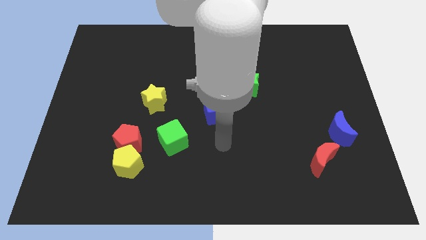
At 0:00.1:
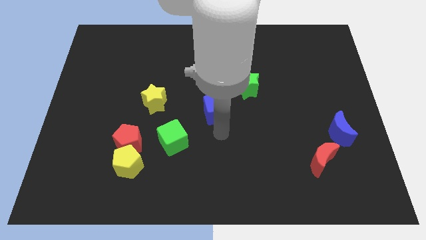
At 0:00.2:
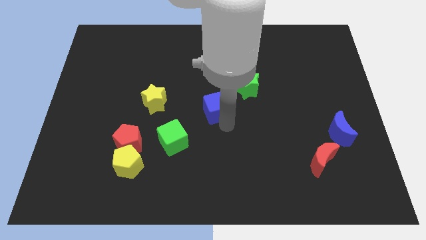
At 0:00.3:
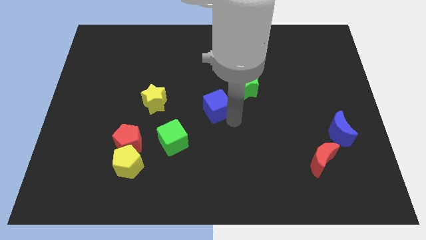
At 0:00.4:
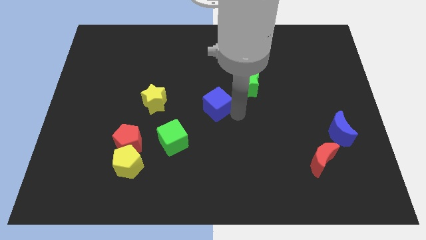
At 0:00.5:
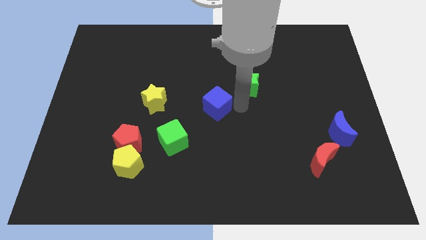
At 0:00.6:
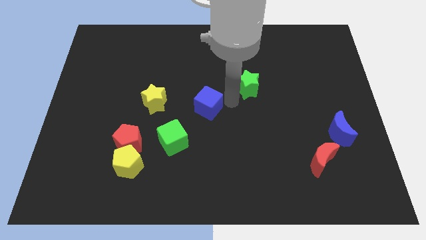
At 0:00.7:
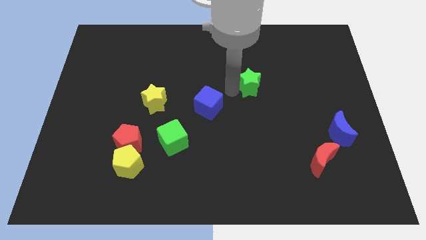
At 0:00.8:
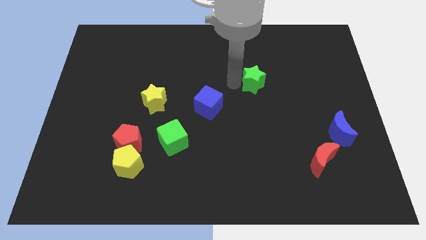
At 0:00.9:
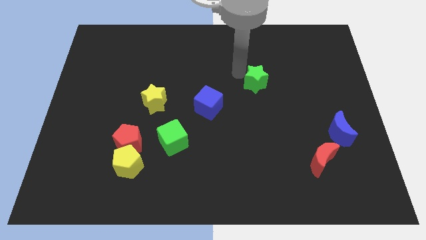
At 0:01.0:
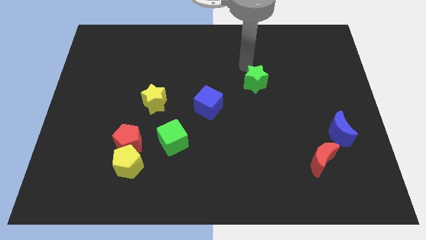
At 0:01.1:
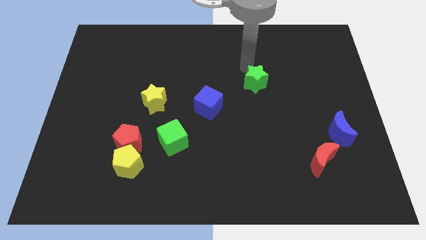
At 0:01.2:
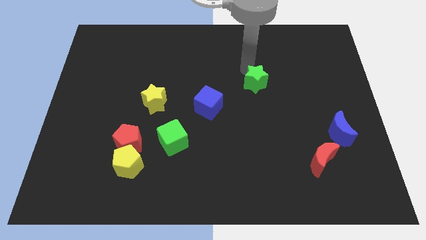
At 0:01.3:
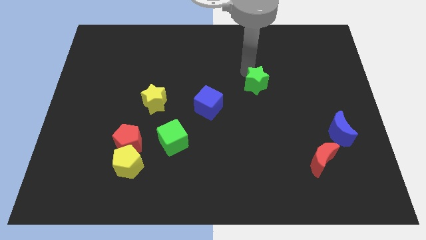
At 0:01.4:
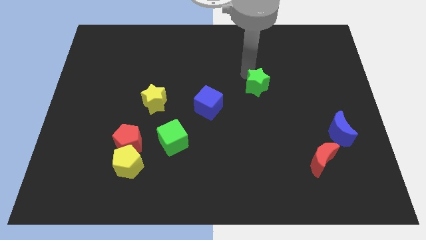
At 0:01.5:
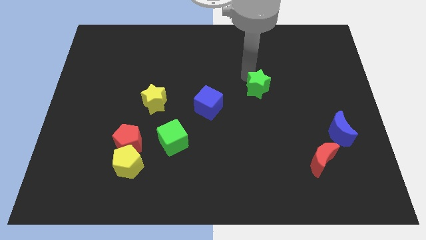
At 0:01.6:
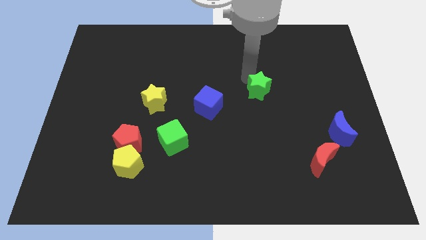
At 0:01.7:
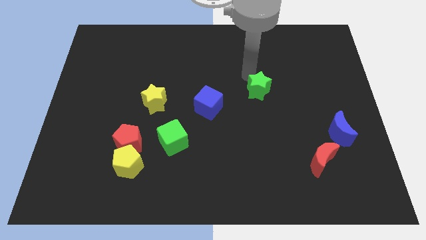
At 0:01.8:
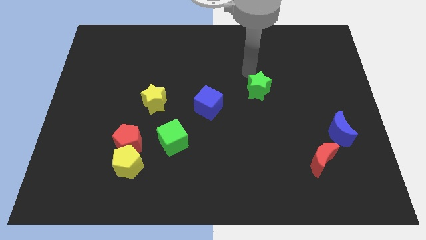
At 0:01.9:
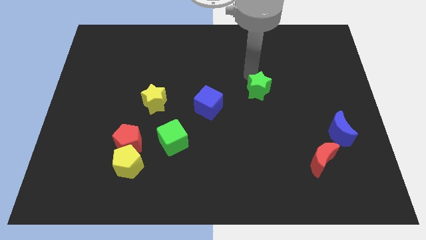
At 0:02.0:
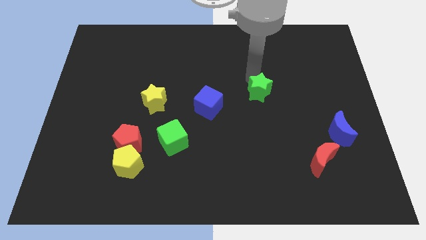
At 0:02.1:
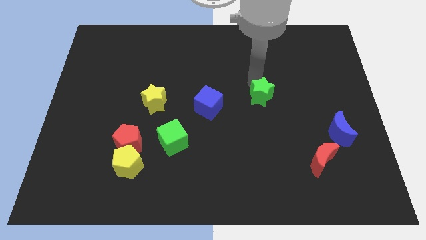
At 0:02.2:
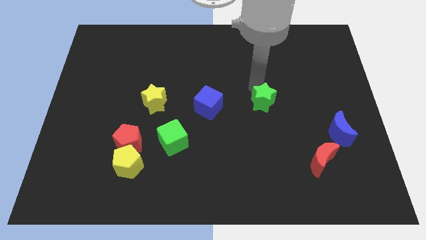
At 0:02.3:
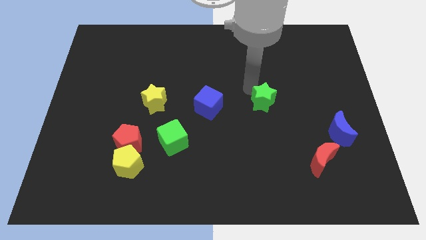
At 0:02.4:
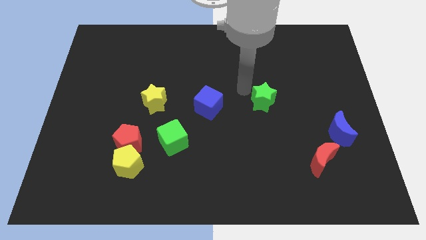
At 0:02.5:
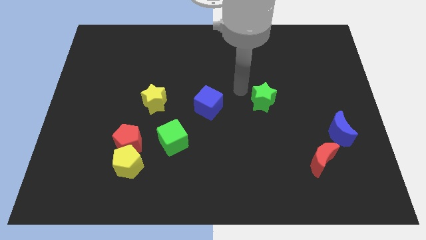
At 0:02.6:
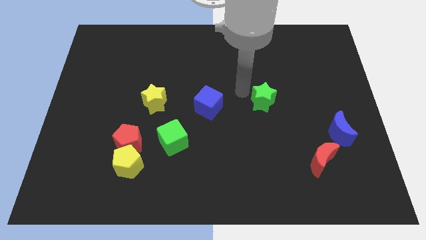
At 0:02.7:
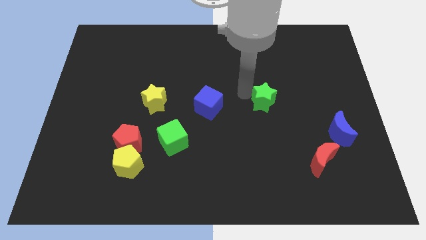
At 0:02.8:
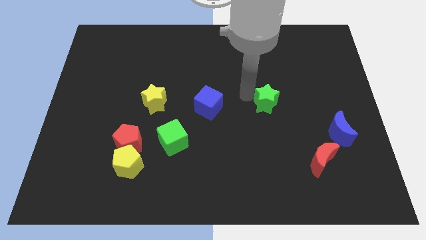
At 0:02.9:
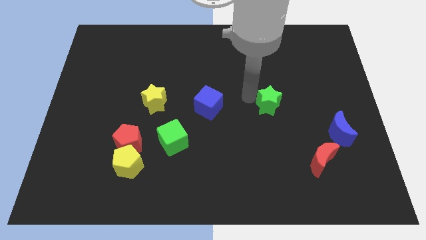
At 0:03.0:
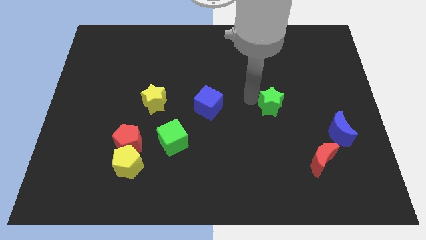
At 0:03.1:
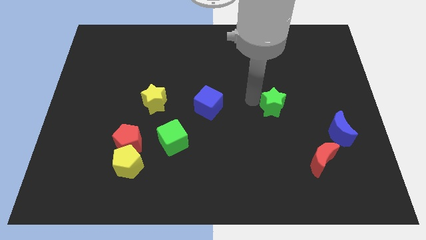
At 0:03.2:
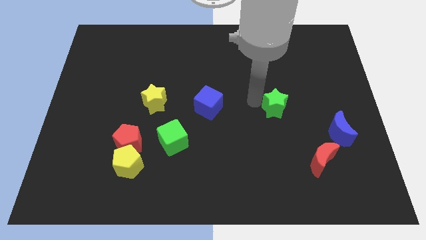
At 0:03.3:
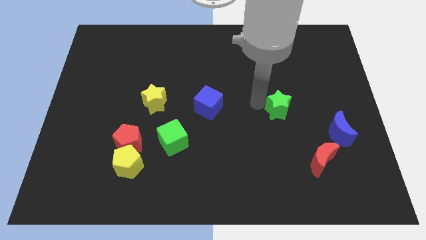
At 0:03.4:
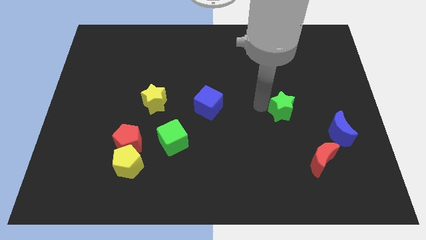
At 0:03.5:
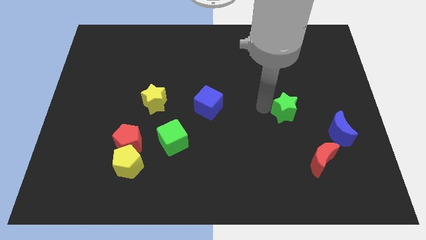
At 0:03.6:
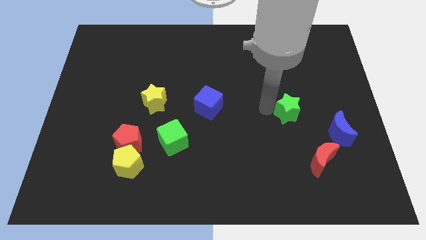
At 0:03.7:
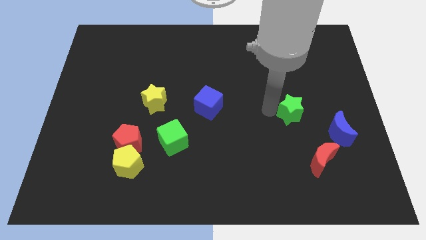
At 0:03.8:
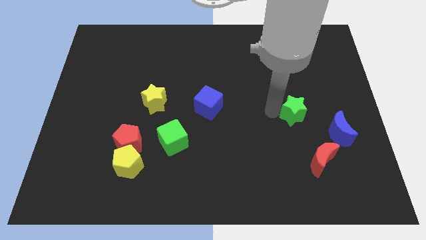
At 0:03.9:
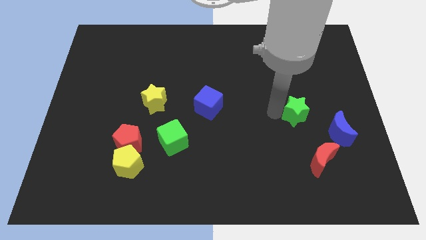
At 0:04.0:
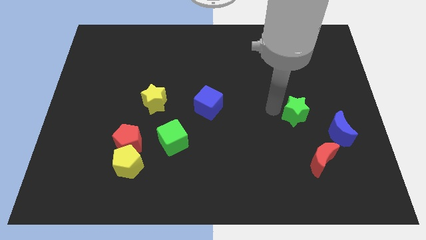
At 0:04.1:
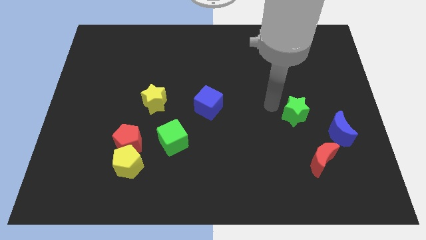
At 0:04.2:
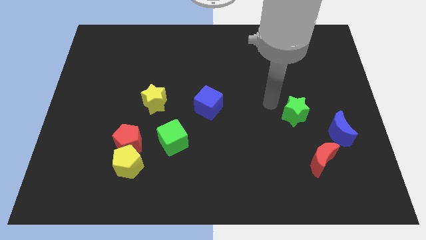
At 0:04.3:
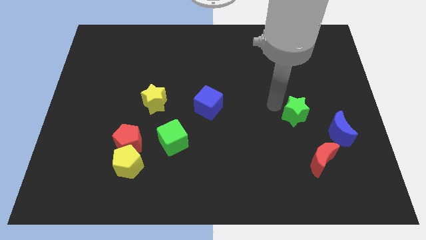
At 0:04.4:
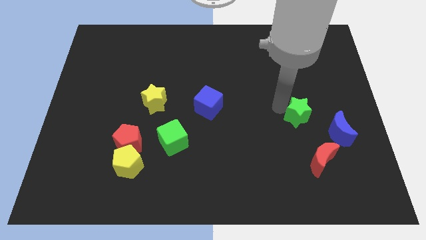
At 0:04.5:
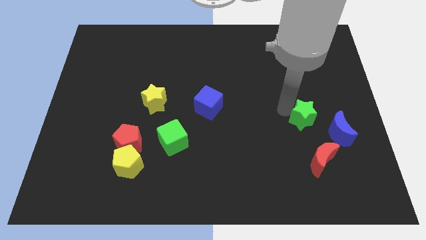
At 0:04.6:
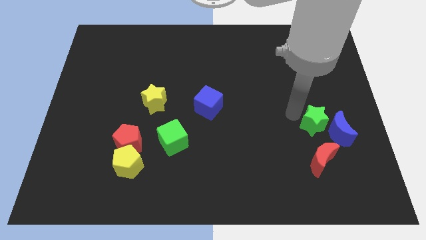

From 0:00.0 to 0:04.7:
push the green star close to the blue moon

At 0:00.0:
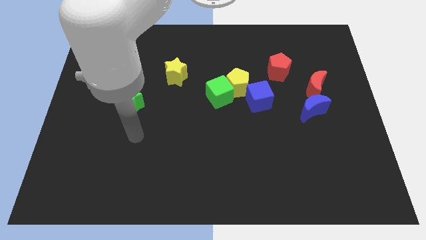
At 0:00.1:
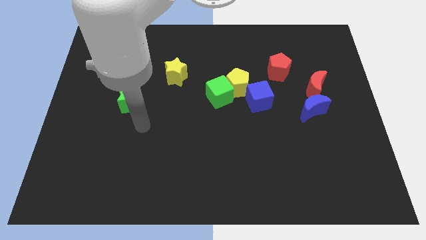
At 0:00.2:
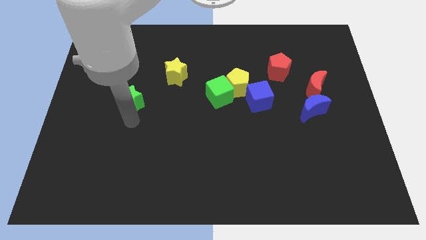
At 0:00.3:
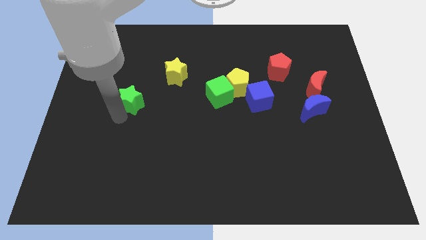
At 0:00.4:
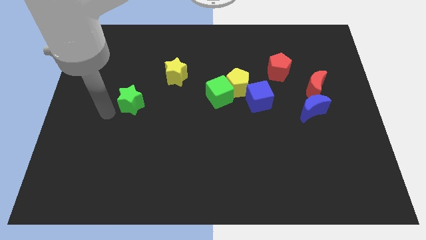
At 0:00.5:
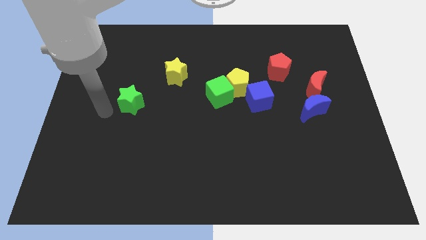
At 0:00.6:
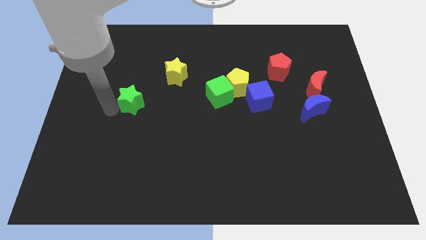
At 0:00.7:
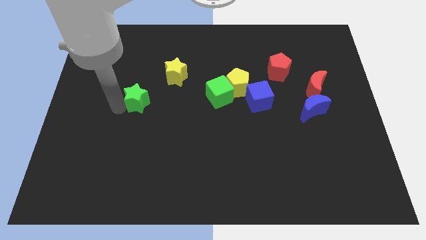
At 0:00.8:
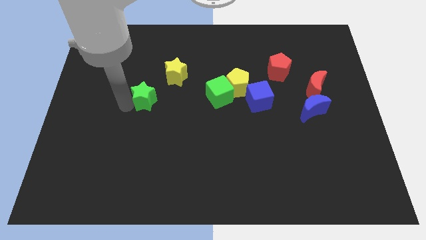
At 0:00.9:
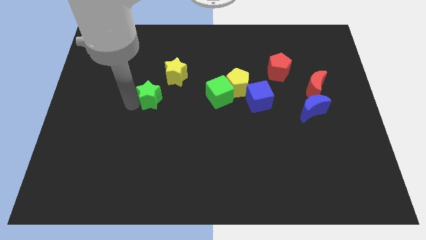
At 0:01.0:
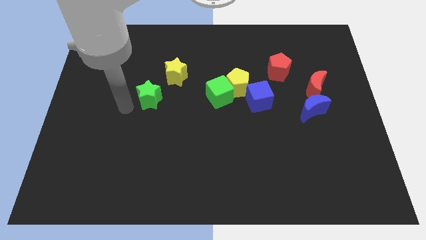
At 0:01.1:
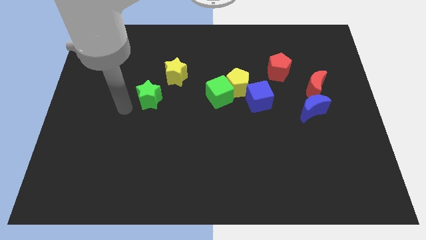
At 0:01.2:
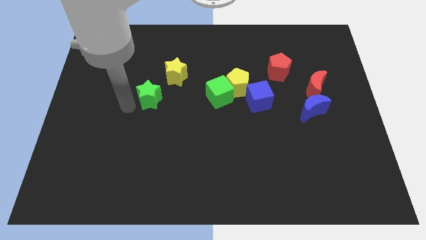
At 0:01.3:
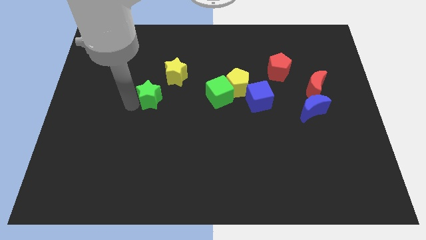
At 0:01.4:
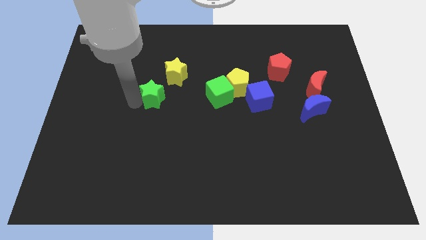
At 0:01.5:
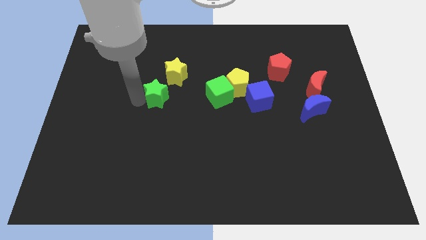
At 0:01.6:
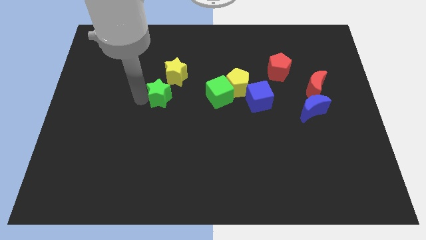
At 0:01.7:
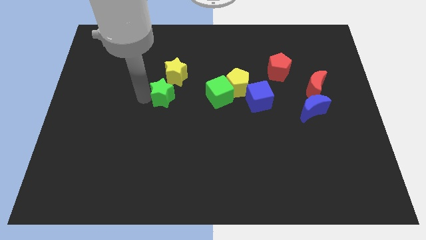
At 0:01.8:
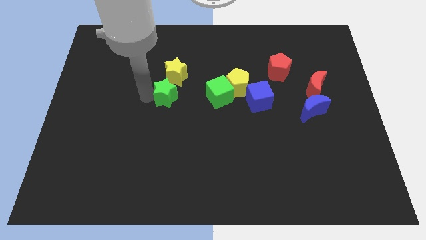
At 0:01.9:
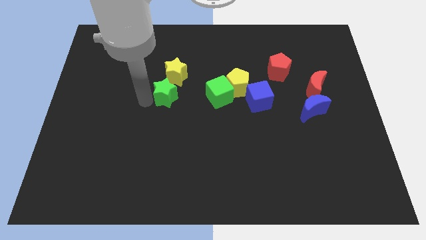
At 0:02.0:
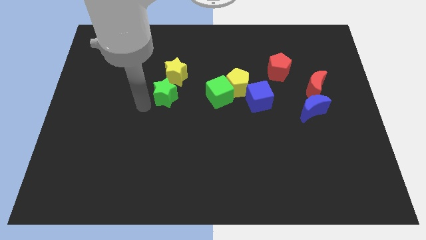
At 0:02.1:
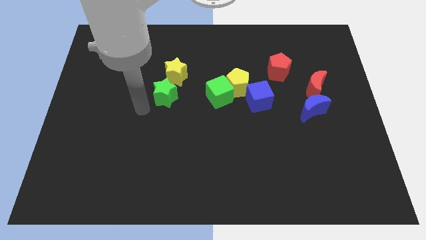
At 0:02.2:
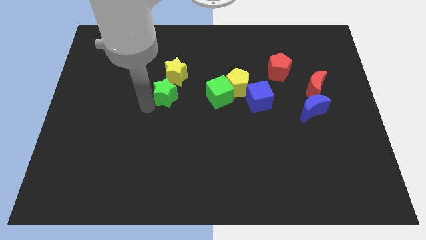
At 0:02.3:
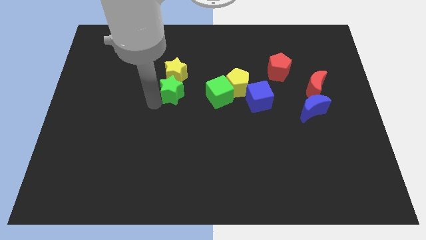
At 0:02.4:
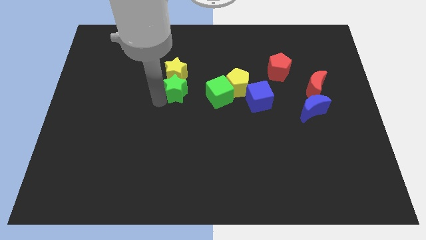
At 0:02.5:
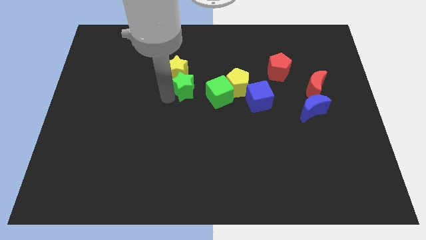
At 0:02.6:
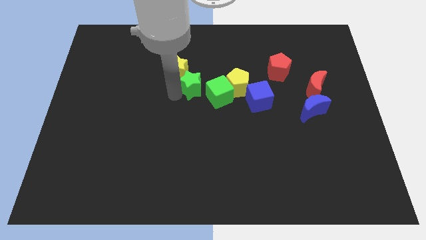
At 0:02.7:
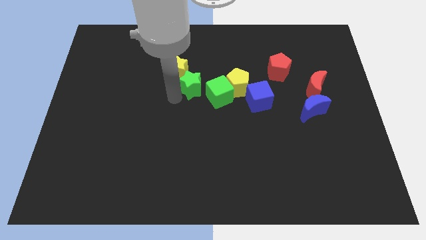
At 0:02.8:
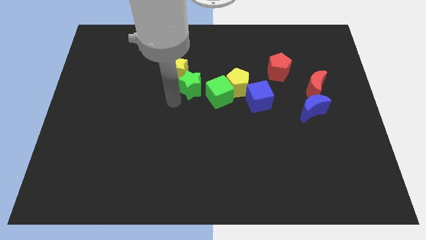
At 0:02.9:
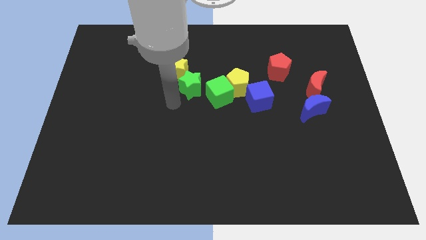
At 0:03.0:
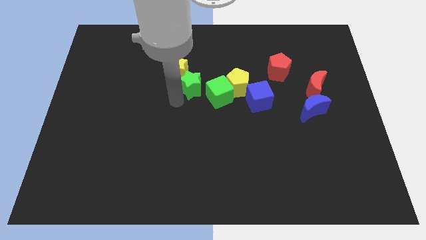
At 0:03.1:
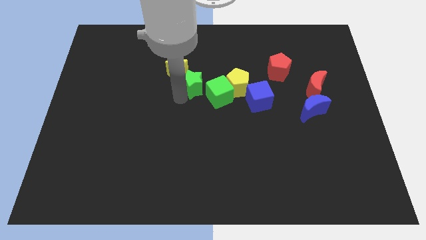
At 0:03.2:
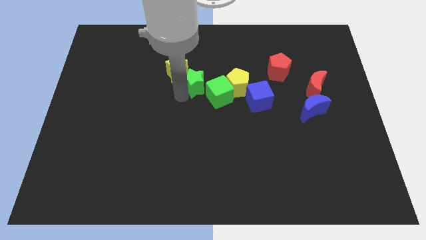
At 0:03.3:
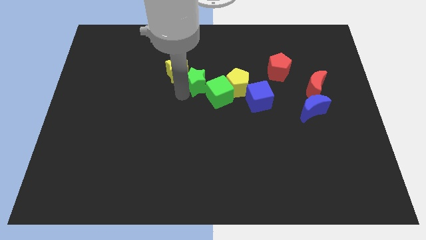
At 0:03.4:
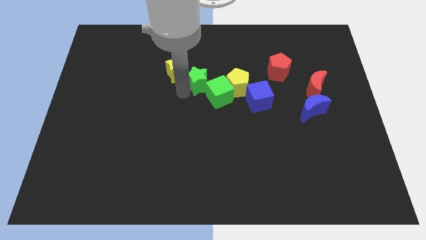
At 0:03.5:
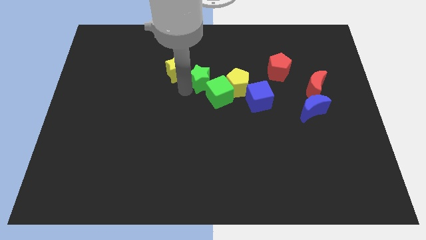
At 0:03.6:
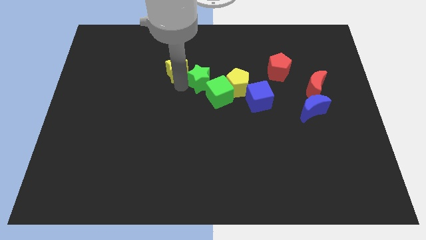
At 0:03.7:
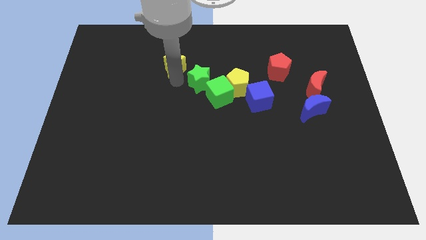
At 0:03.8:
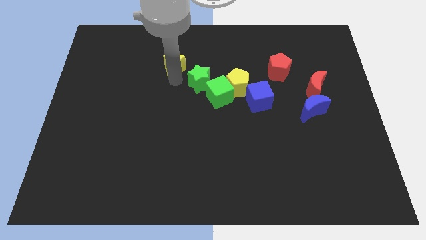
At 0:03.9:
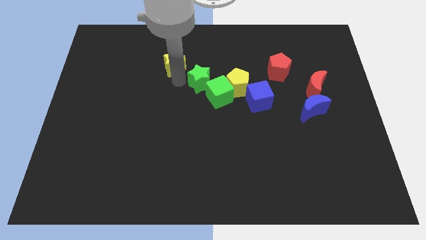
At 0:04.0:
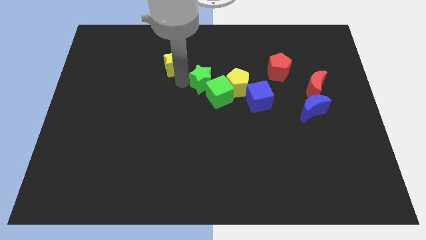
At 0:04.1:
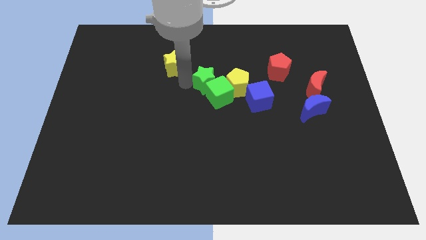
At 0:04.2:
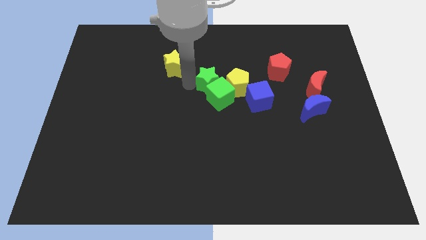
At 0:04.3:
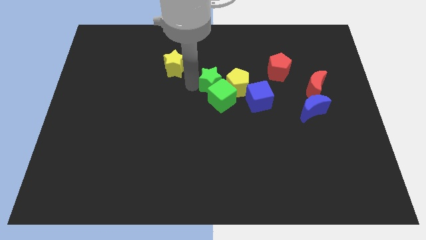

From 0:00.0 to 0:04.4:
push the green star to the yellow pentagon
